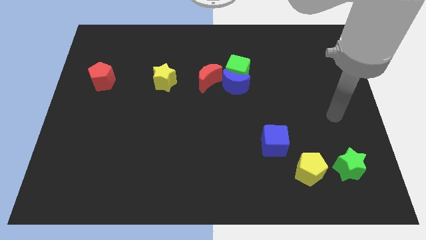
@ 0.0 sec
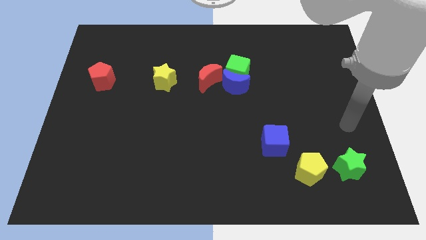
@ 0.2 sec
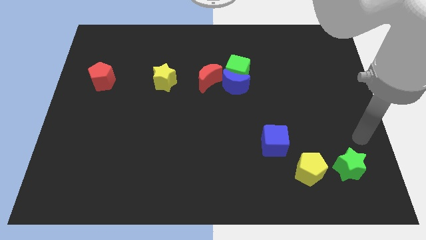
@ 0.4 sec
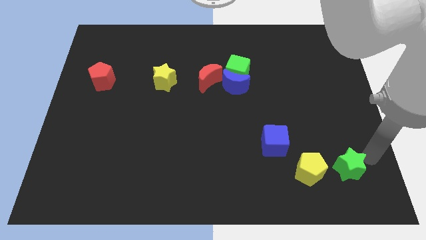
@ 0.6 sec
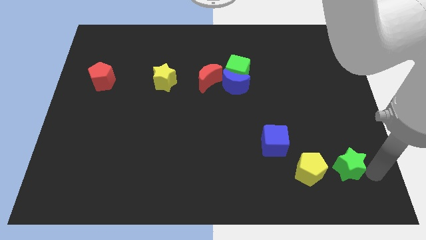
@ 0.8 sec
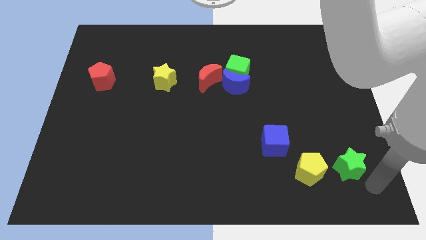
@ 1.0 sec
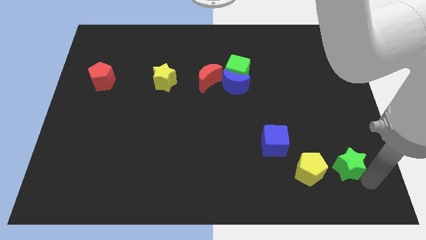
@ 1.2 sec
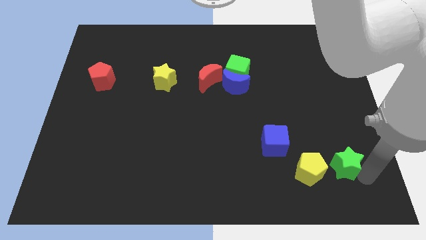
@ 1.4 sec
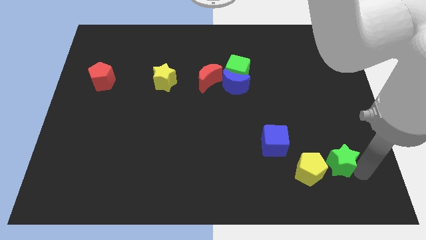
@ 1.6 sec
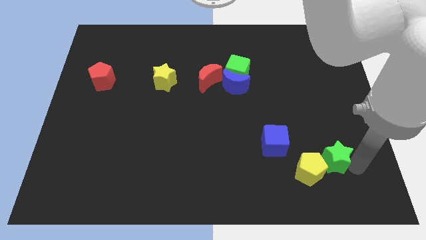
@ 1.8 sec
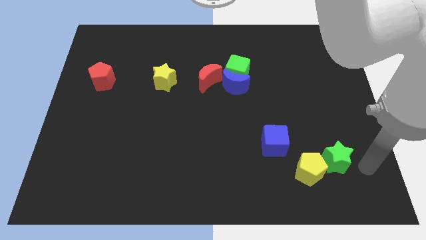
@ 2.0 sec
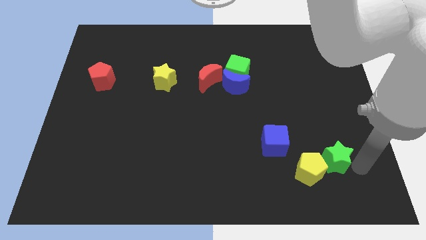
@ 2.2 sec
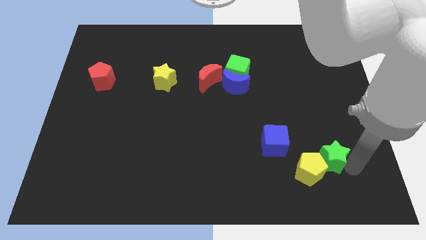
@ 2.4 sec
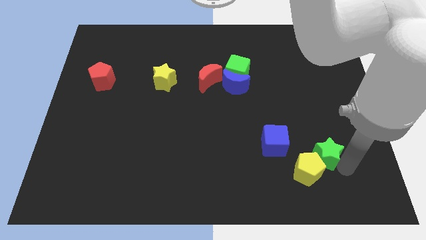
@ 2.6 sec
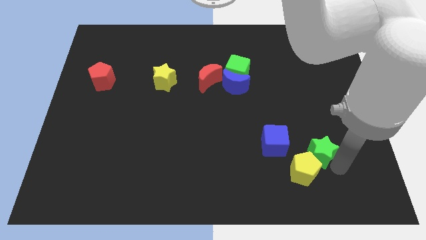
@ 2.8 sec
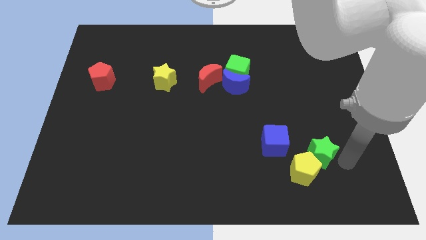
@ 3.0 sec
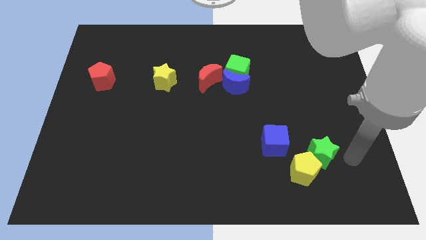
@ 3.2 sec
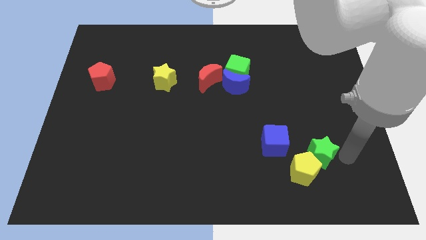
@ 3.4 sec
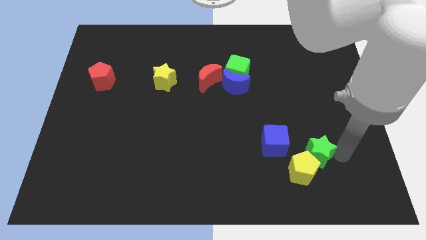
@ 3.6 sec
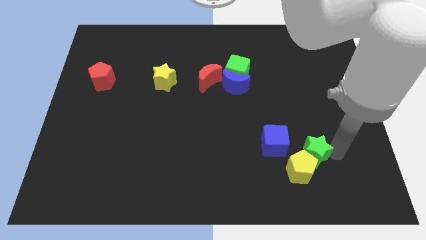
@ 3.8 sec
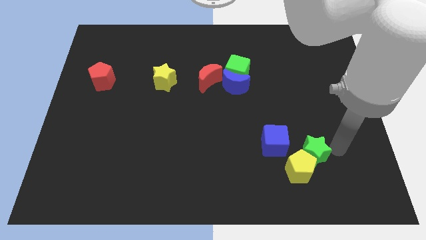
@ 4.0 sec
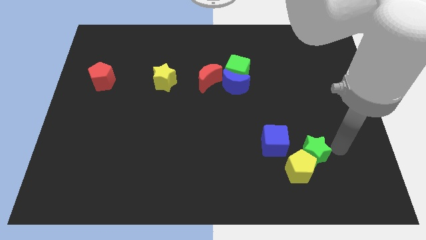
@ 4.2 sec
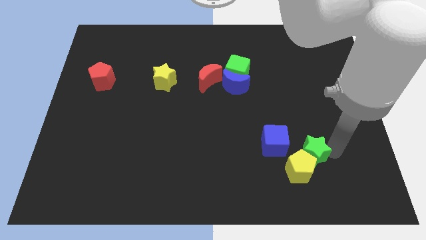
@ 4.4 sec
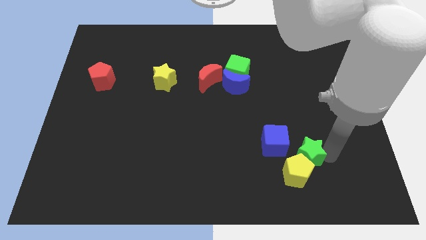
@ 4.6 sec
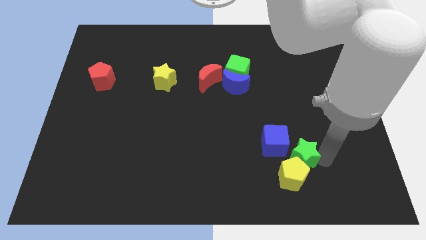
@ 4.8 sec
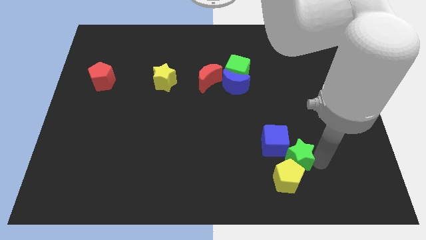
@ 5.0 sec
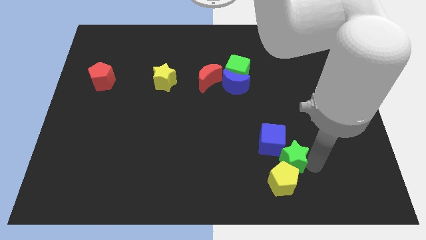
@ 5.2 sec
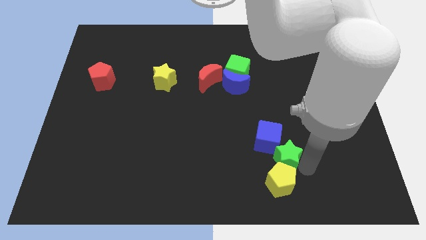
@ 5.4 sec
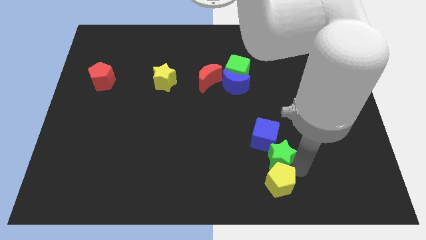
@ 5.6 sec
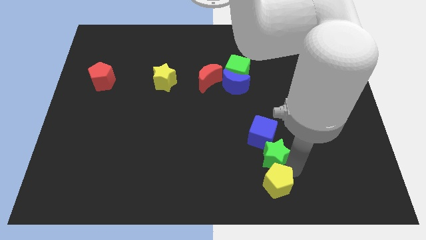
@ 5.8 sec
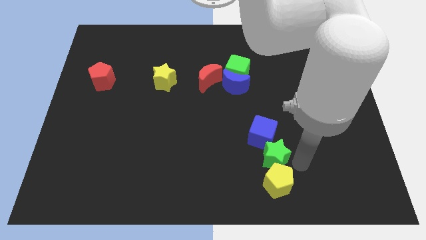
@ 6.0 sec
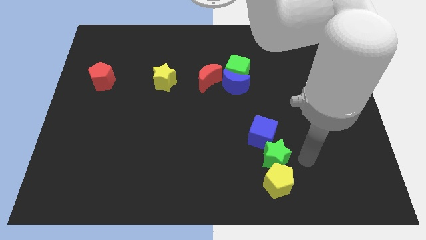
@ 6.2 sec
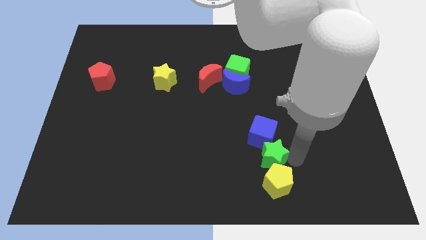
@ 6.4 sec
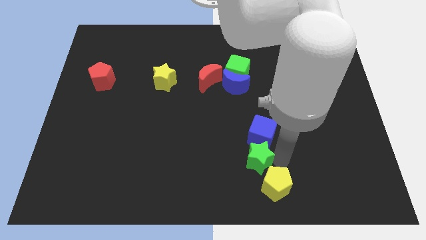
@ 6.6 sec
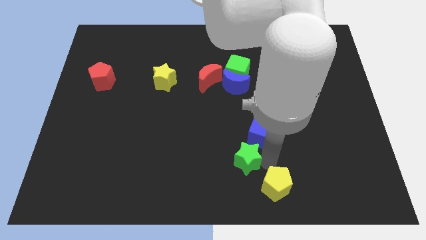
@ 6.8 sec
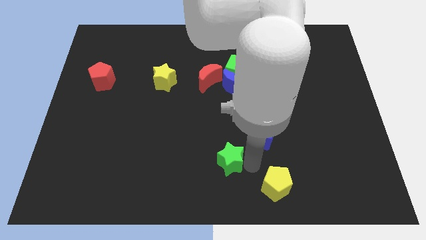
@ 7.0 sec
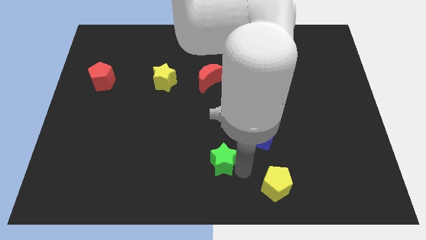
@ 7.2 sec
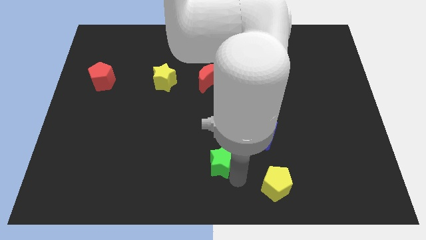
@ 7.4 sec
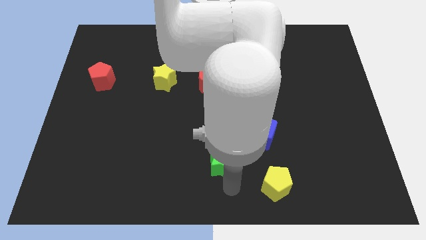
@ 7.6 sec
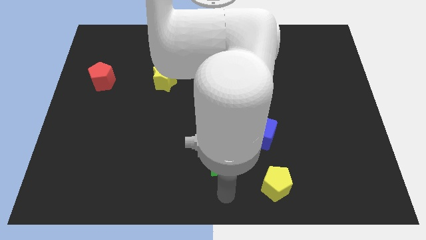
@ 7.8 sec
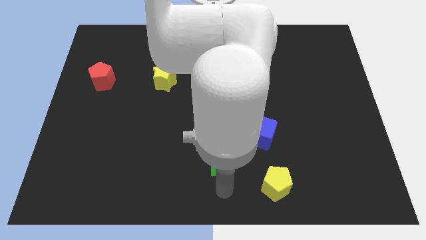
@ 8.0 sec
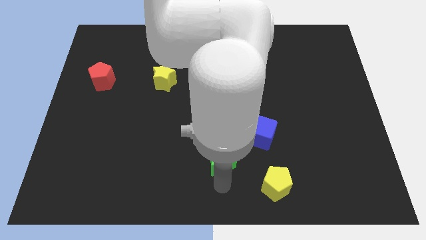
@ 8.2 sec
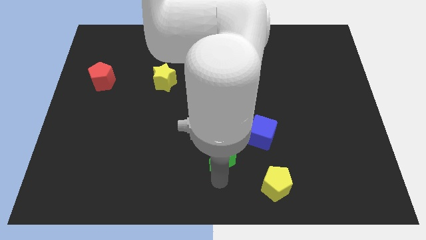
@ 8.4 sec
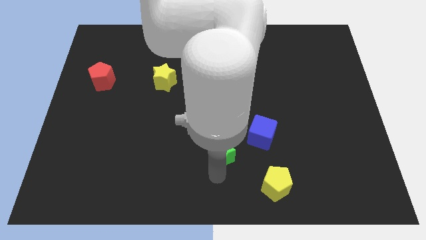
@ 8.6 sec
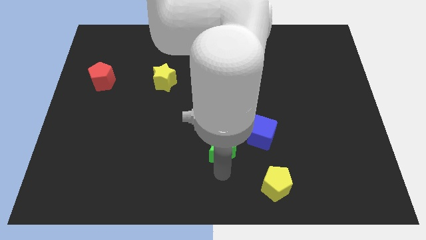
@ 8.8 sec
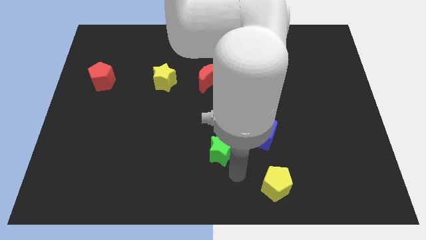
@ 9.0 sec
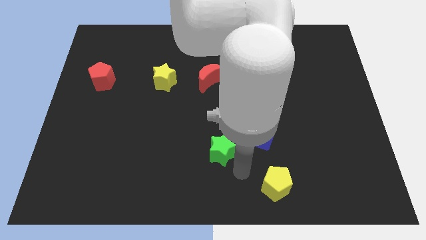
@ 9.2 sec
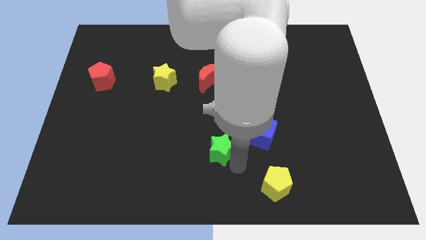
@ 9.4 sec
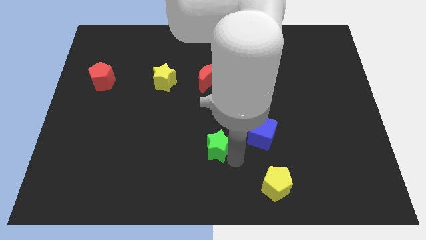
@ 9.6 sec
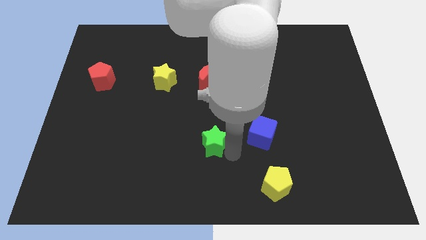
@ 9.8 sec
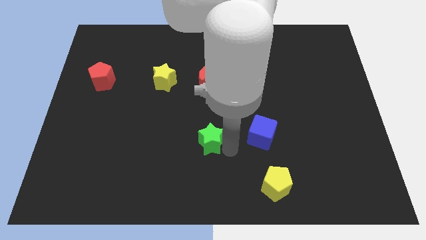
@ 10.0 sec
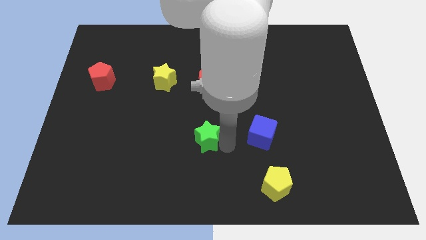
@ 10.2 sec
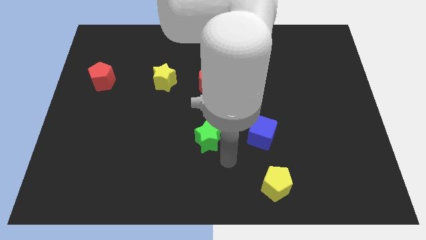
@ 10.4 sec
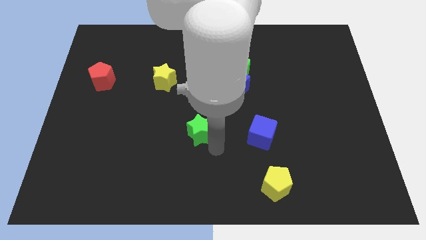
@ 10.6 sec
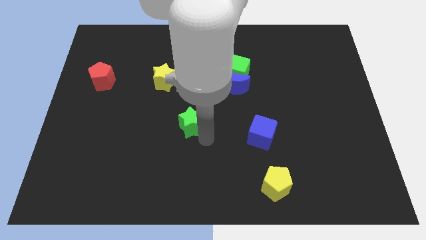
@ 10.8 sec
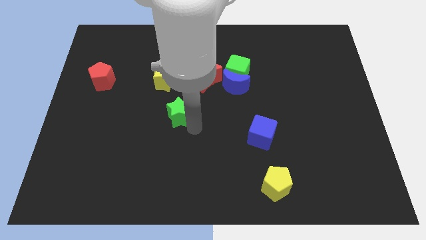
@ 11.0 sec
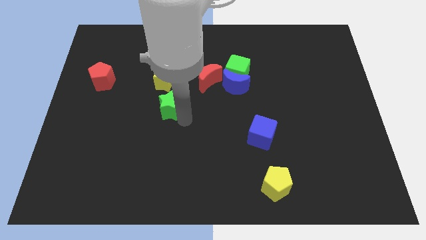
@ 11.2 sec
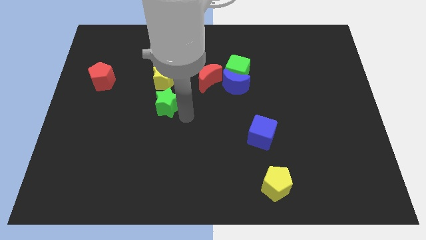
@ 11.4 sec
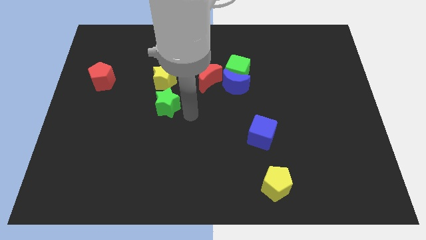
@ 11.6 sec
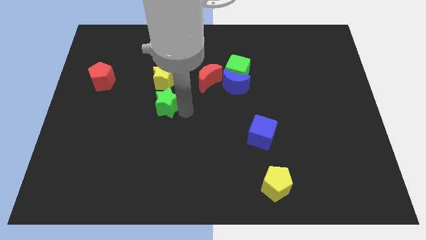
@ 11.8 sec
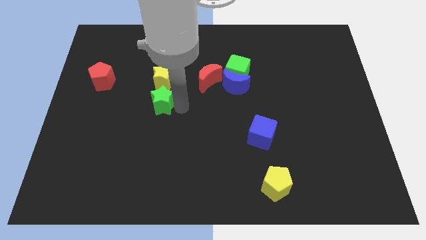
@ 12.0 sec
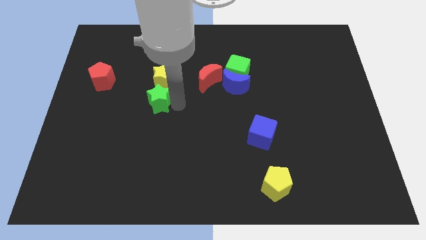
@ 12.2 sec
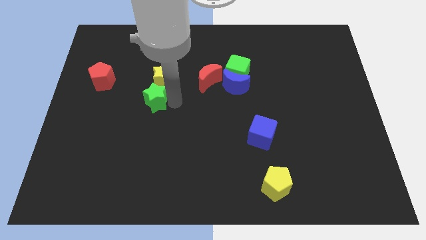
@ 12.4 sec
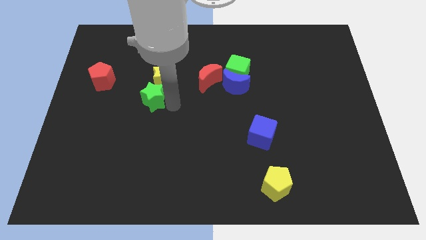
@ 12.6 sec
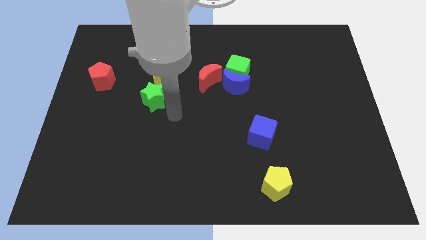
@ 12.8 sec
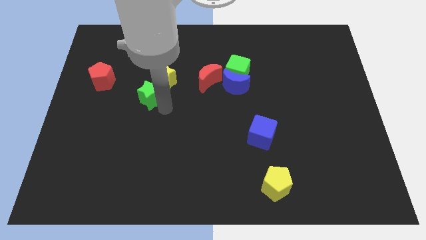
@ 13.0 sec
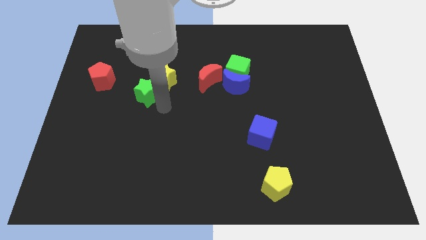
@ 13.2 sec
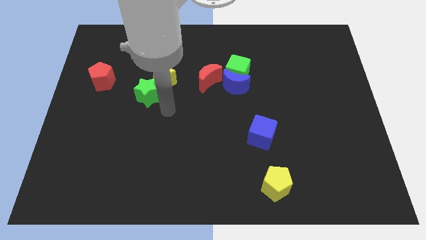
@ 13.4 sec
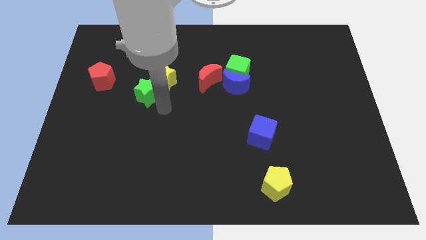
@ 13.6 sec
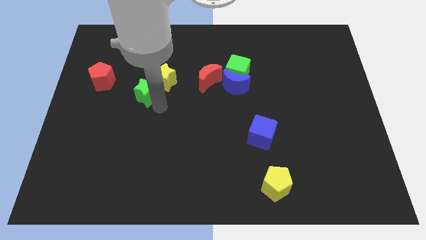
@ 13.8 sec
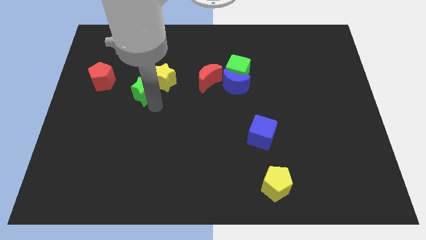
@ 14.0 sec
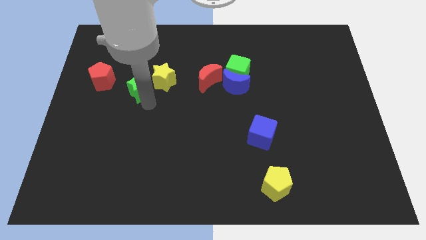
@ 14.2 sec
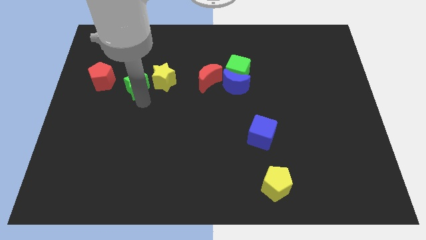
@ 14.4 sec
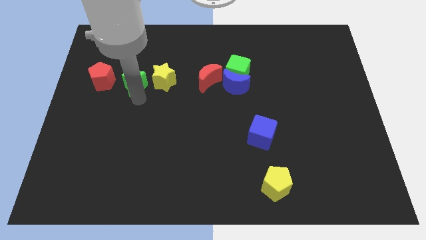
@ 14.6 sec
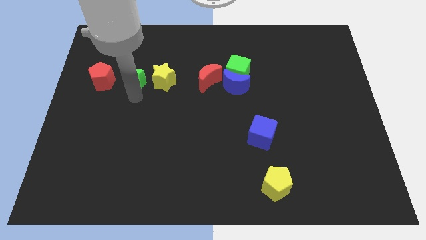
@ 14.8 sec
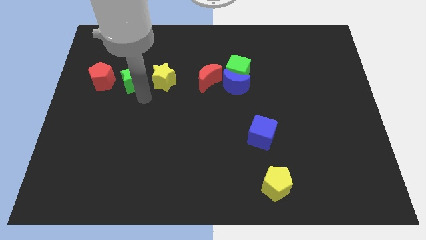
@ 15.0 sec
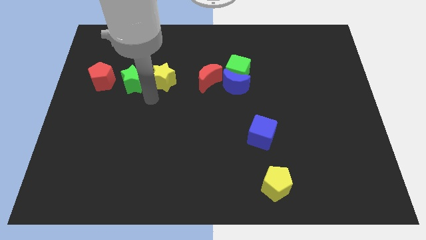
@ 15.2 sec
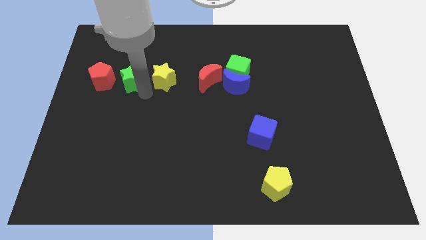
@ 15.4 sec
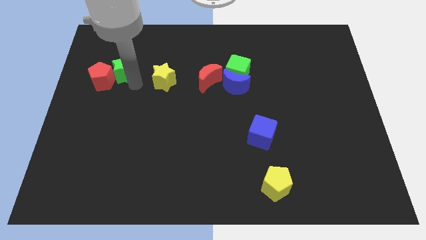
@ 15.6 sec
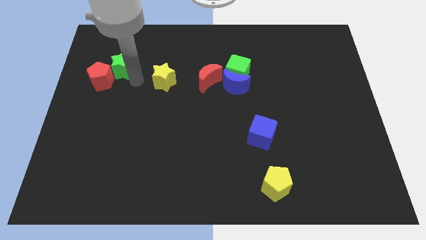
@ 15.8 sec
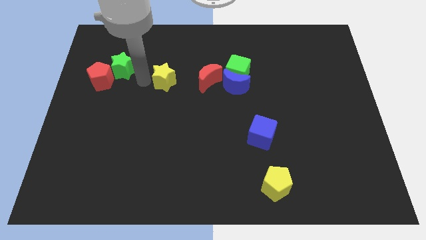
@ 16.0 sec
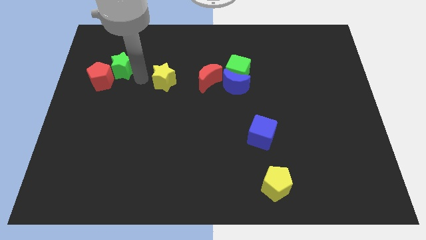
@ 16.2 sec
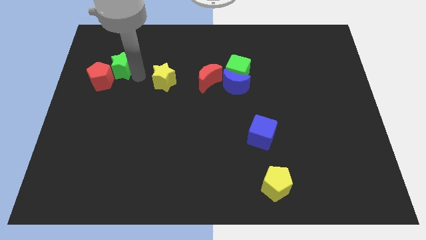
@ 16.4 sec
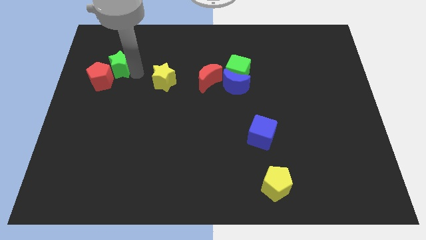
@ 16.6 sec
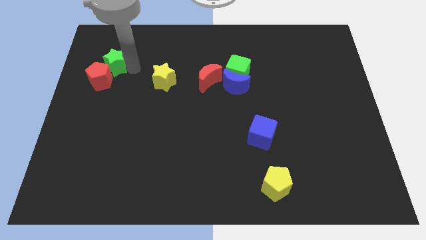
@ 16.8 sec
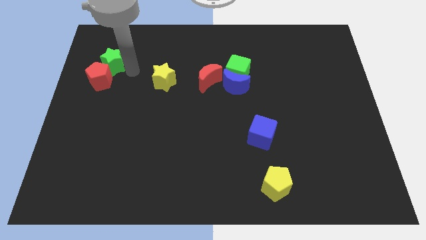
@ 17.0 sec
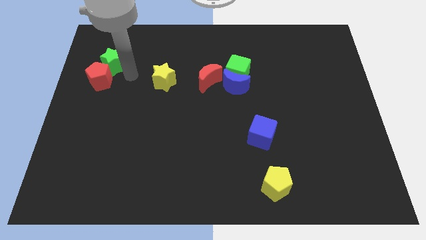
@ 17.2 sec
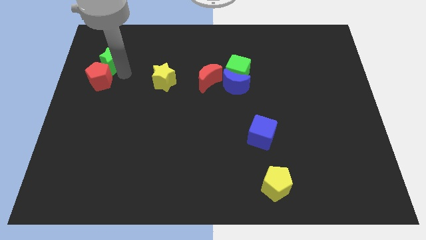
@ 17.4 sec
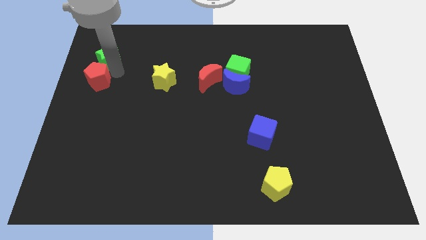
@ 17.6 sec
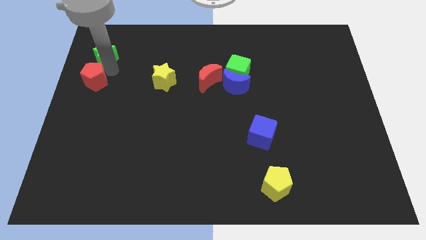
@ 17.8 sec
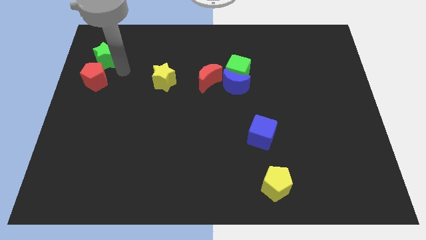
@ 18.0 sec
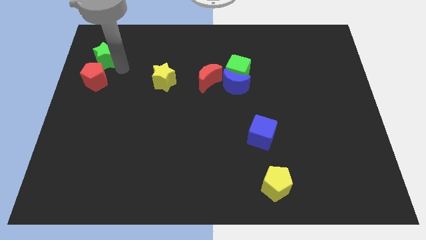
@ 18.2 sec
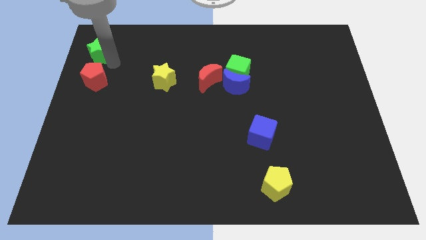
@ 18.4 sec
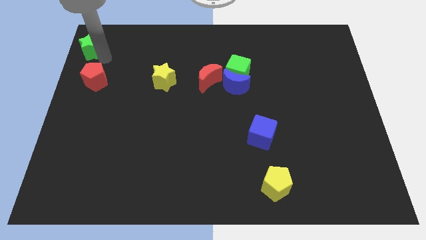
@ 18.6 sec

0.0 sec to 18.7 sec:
put the green star to the top left
